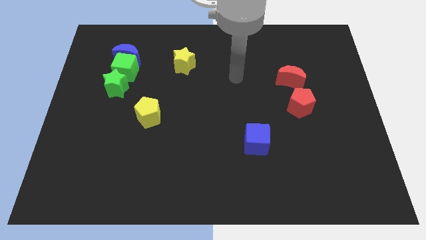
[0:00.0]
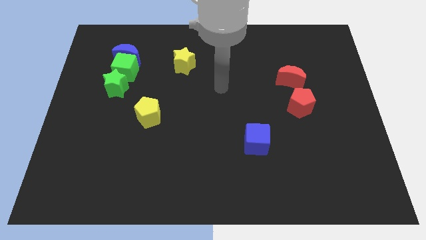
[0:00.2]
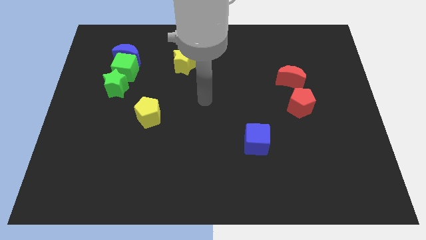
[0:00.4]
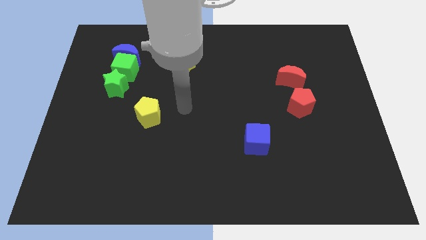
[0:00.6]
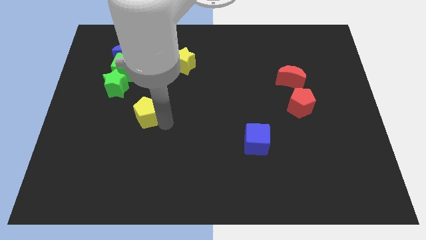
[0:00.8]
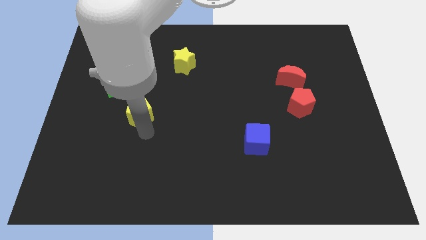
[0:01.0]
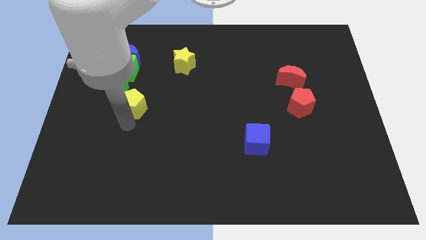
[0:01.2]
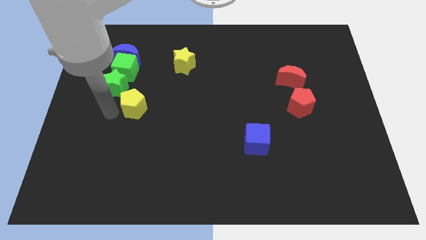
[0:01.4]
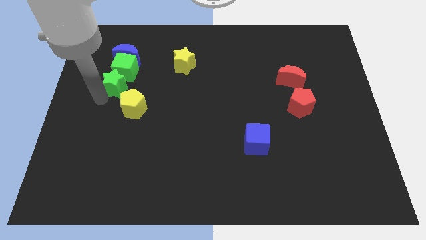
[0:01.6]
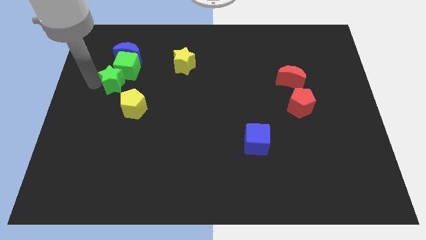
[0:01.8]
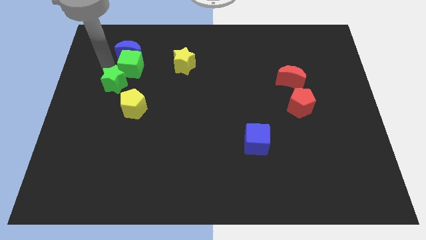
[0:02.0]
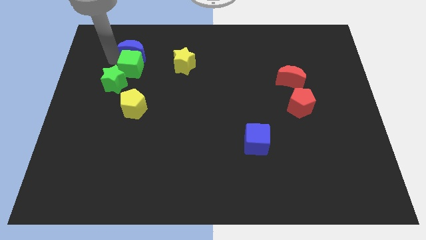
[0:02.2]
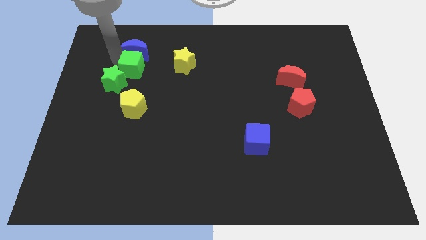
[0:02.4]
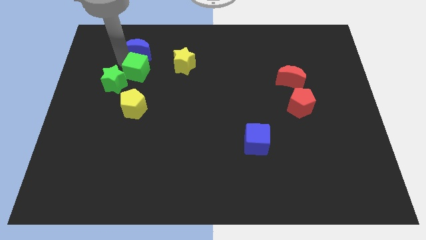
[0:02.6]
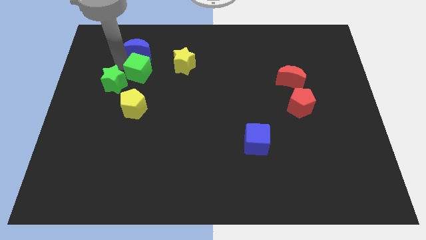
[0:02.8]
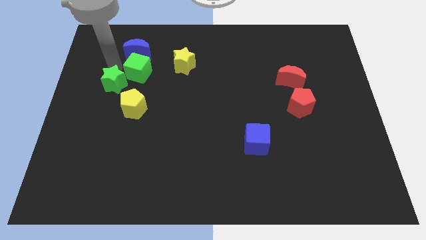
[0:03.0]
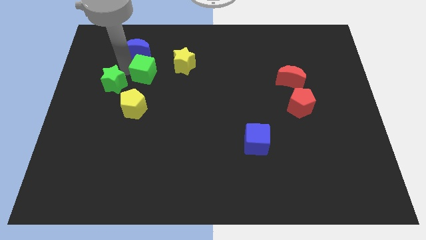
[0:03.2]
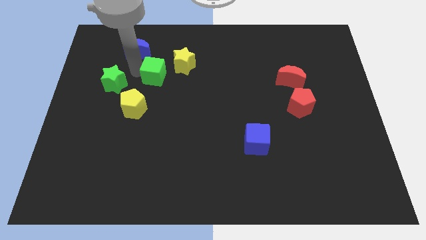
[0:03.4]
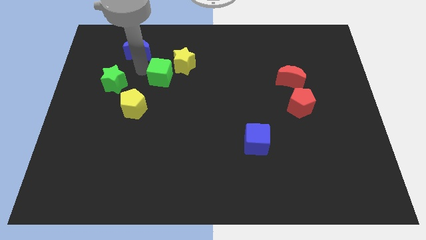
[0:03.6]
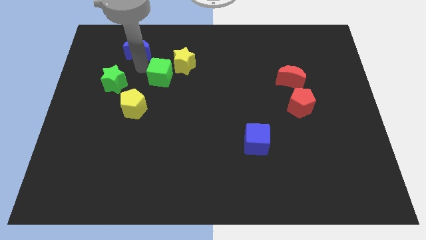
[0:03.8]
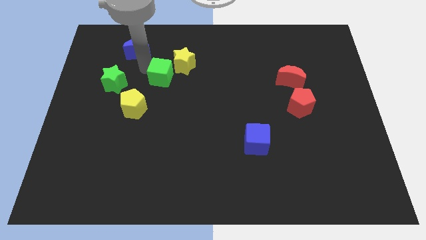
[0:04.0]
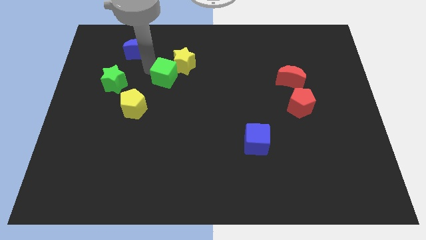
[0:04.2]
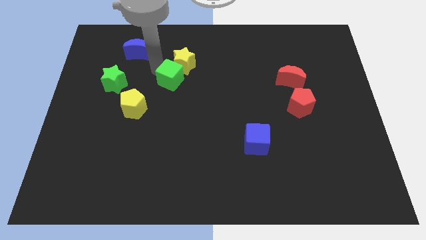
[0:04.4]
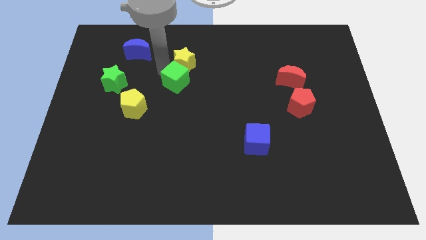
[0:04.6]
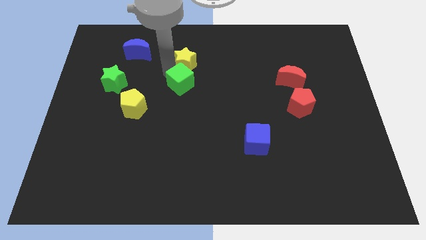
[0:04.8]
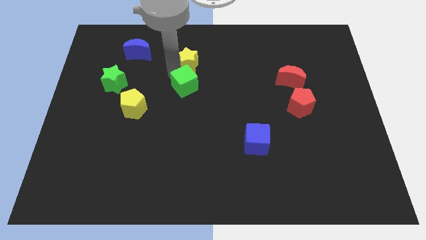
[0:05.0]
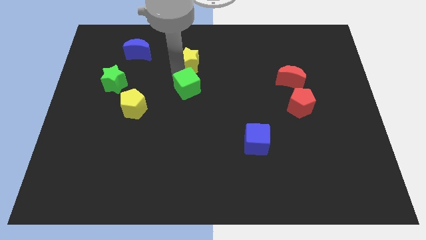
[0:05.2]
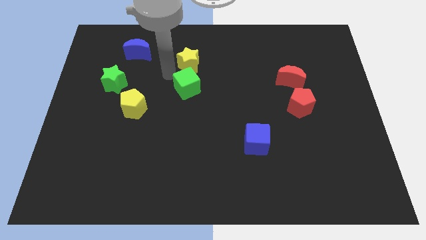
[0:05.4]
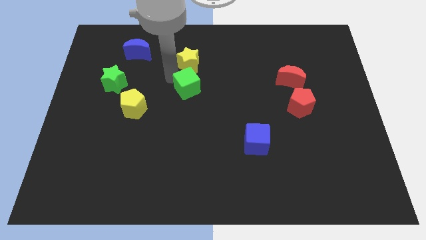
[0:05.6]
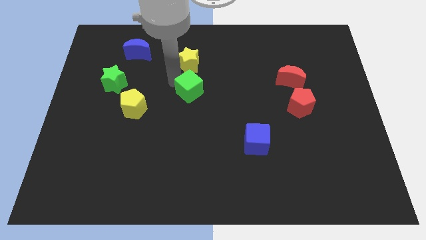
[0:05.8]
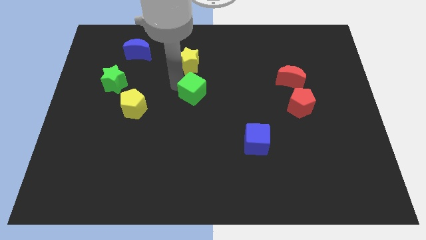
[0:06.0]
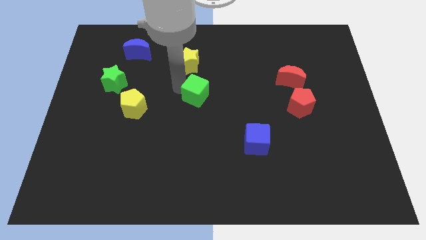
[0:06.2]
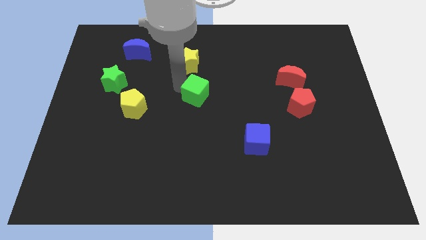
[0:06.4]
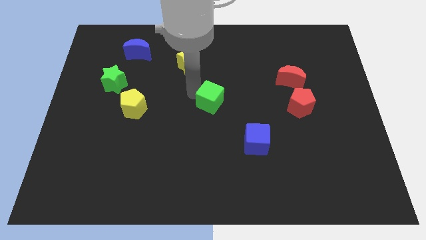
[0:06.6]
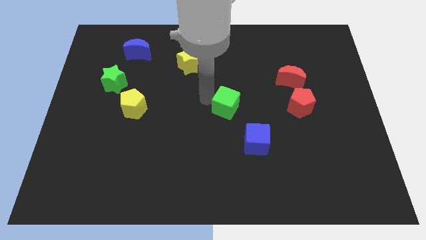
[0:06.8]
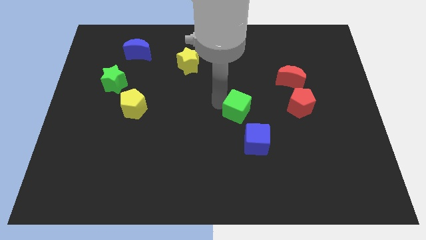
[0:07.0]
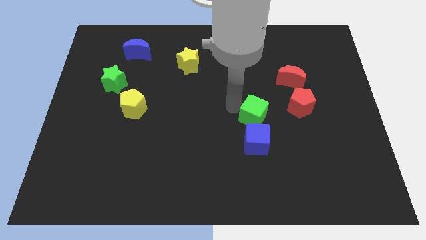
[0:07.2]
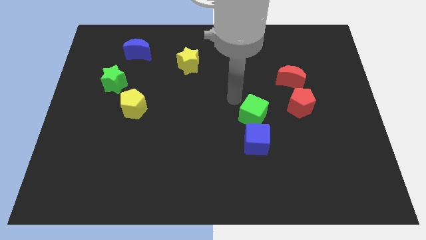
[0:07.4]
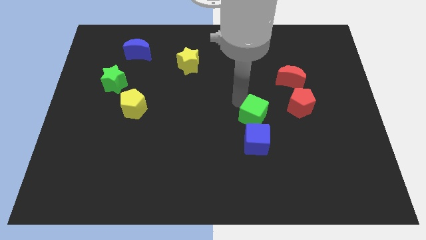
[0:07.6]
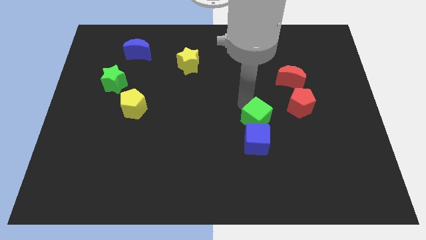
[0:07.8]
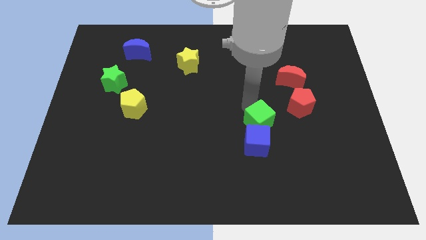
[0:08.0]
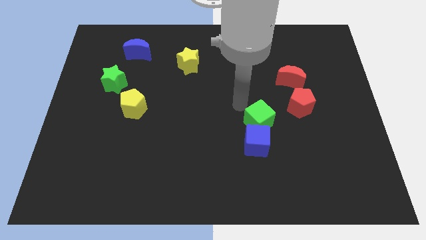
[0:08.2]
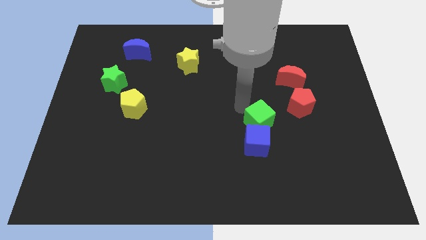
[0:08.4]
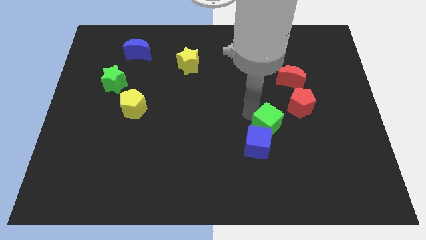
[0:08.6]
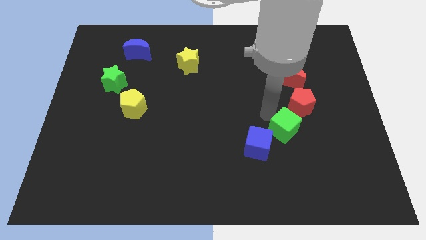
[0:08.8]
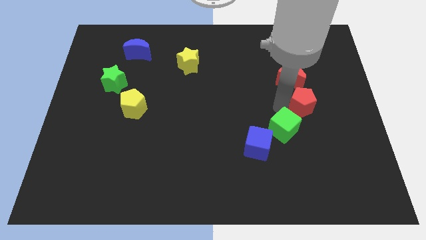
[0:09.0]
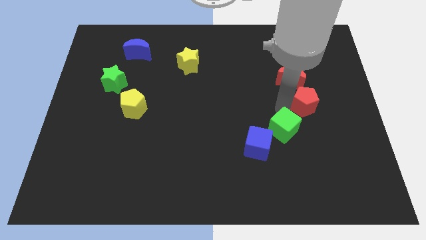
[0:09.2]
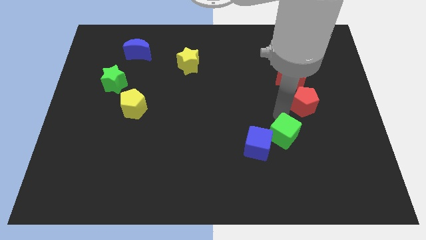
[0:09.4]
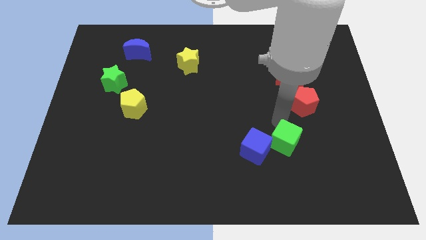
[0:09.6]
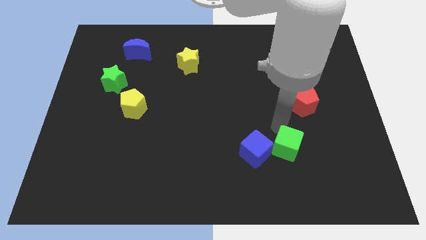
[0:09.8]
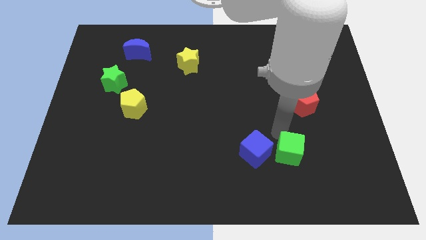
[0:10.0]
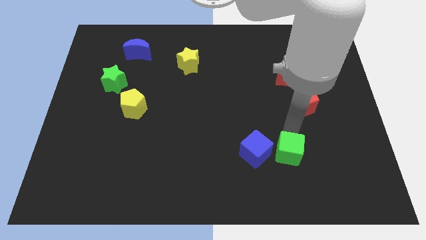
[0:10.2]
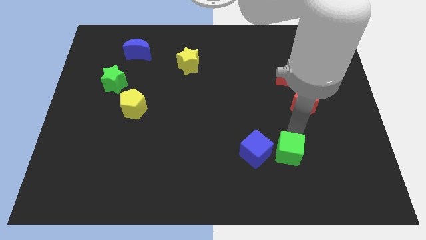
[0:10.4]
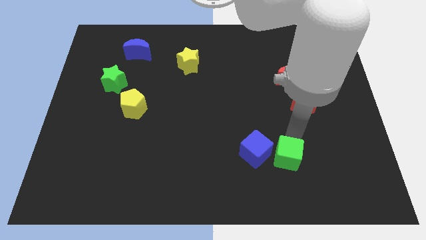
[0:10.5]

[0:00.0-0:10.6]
push the green cube to the bottom right side of the blue cube

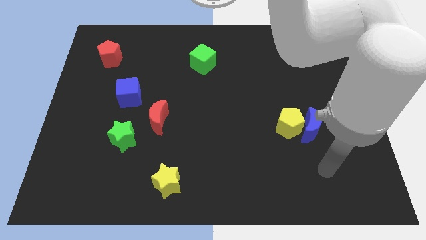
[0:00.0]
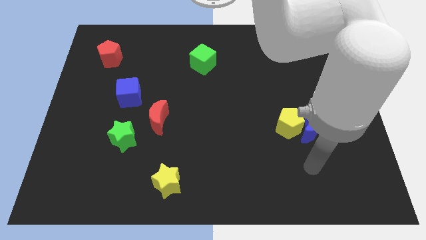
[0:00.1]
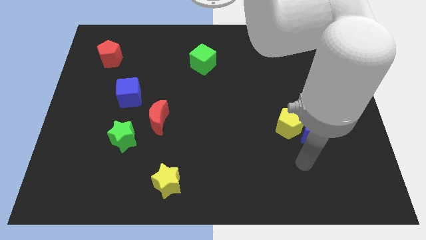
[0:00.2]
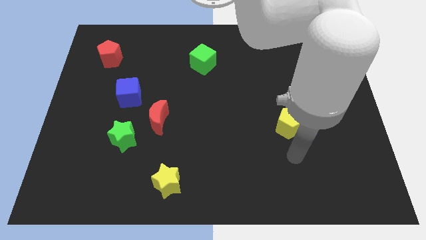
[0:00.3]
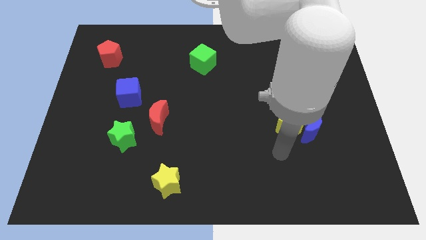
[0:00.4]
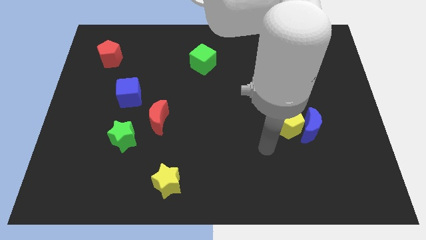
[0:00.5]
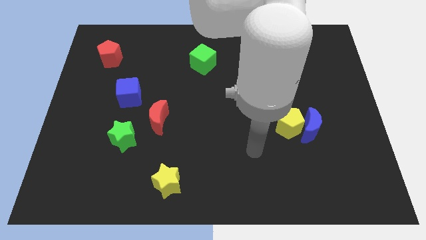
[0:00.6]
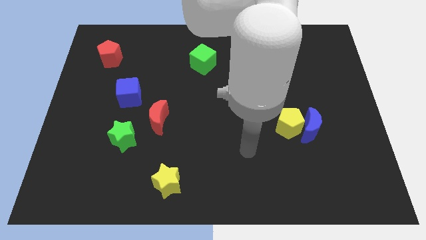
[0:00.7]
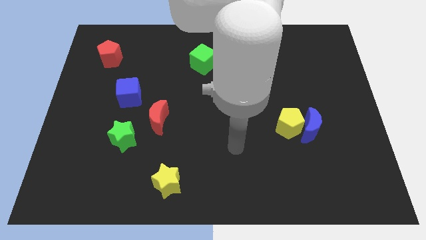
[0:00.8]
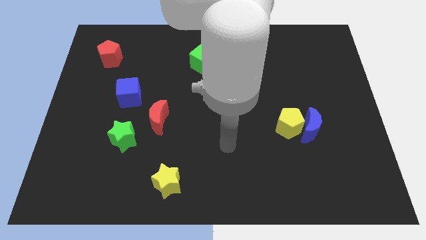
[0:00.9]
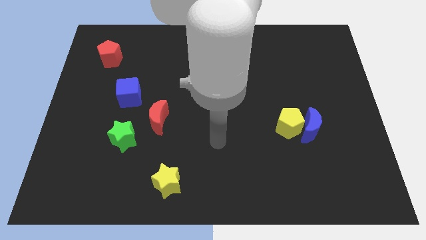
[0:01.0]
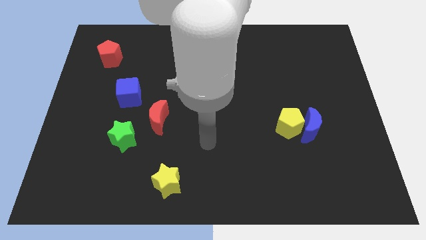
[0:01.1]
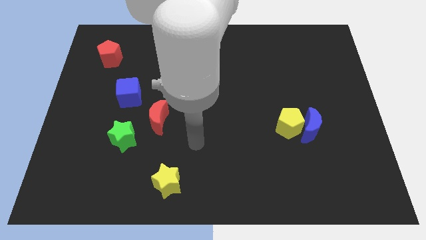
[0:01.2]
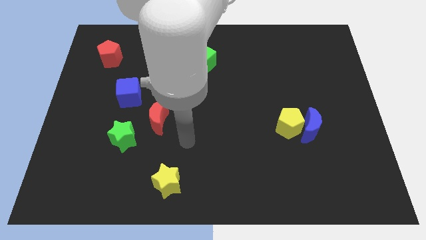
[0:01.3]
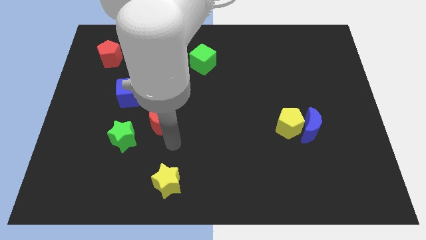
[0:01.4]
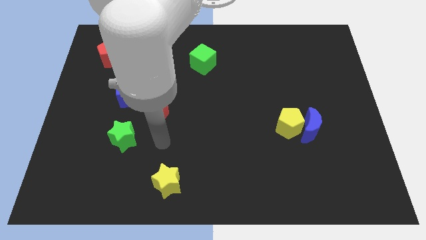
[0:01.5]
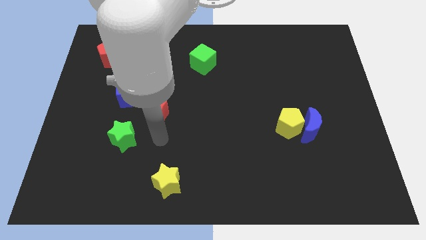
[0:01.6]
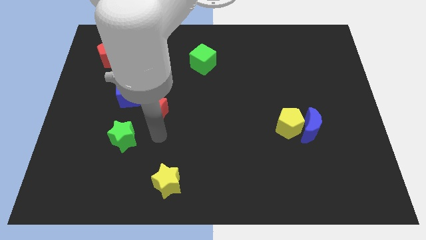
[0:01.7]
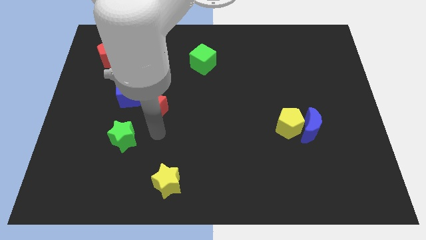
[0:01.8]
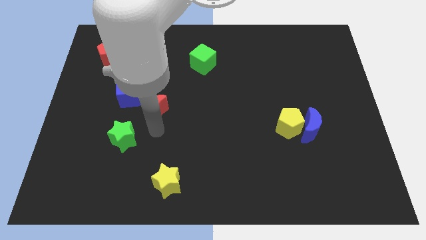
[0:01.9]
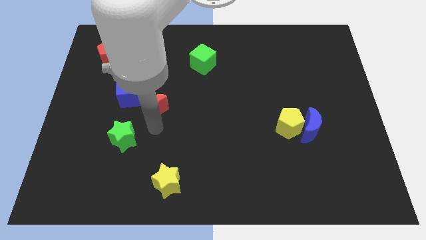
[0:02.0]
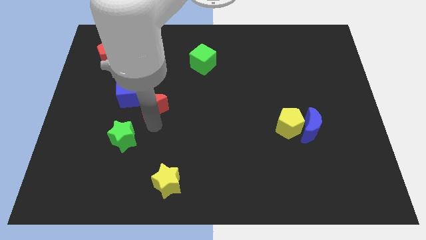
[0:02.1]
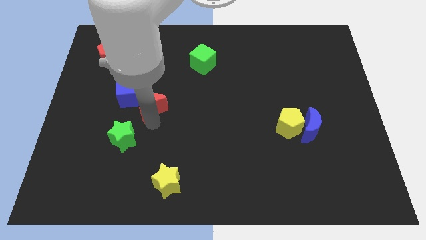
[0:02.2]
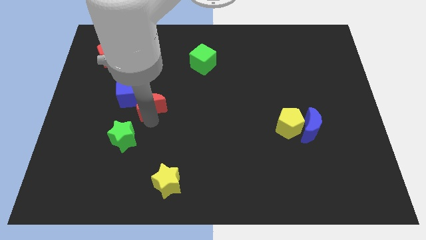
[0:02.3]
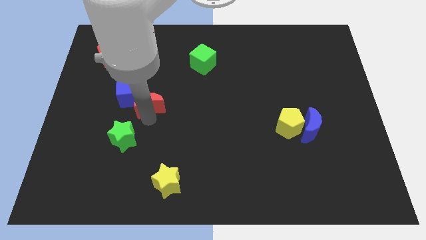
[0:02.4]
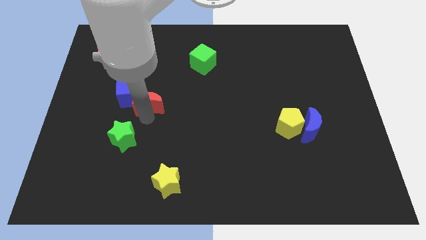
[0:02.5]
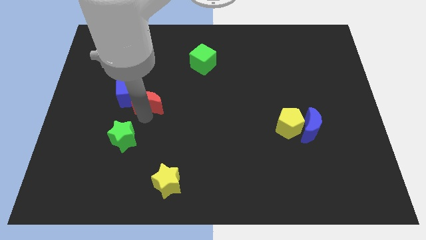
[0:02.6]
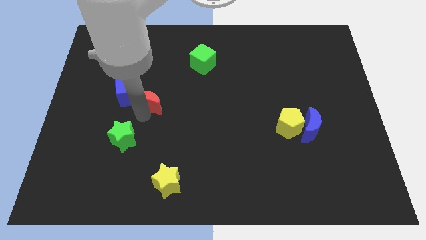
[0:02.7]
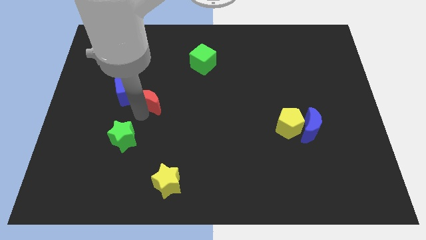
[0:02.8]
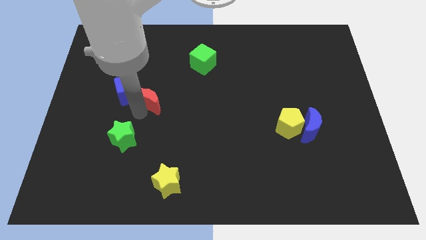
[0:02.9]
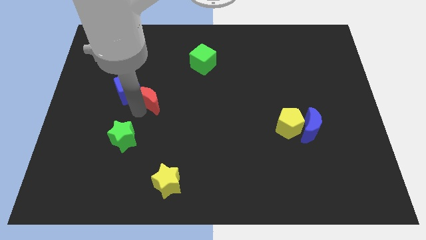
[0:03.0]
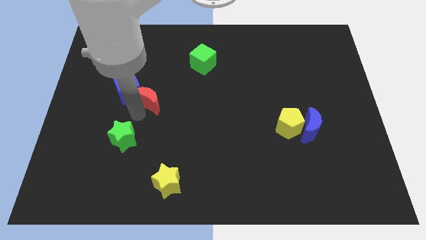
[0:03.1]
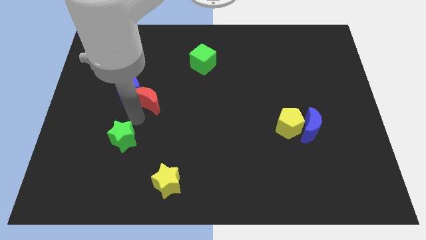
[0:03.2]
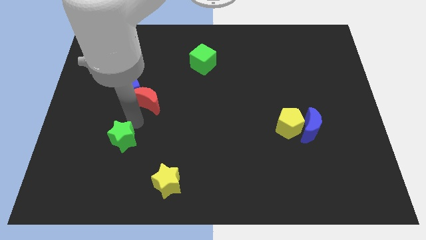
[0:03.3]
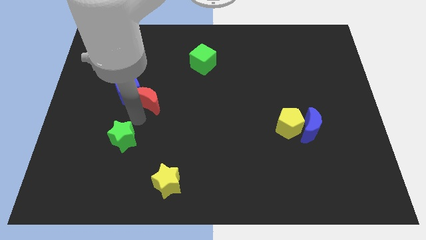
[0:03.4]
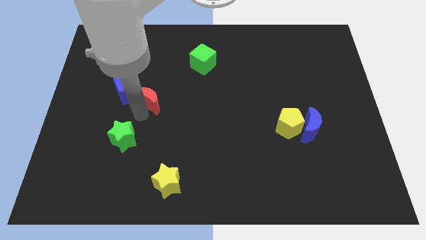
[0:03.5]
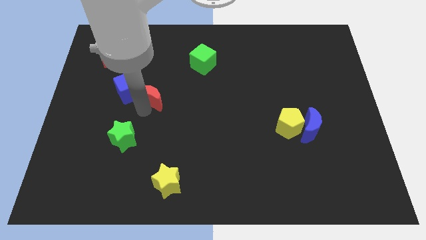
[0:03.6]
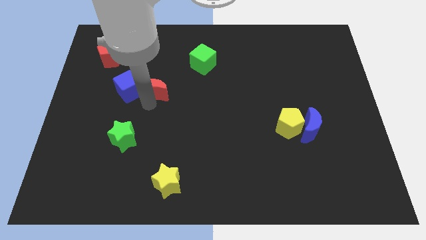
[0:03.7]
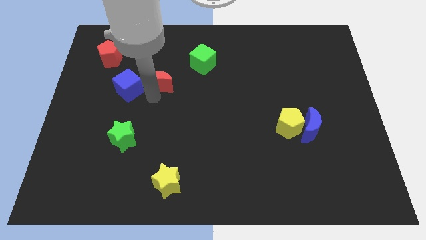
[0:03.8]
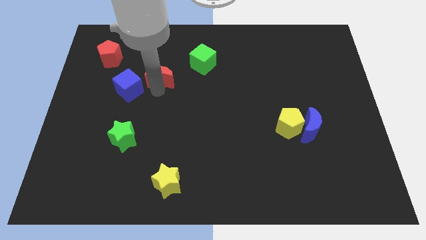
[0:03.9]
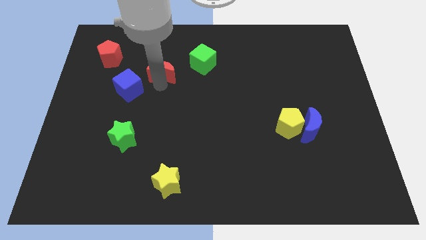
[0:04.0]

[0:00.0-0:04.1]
move the red moon left of the green cube
